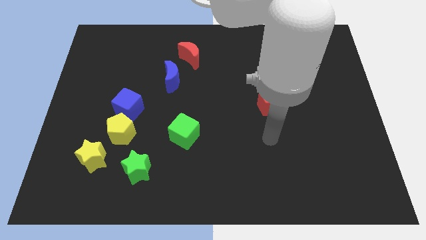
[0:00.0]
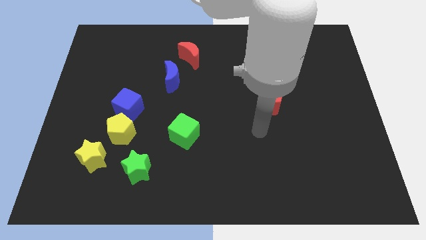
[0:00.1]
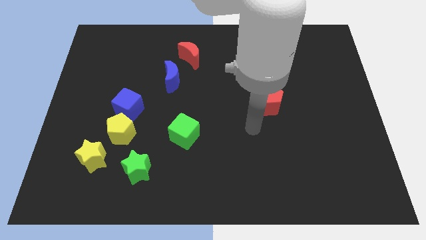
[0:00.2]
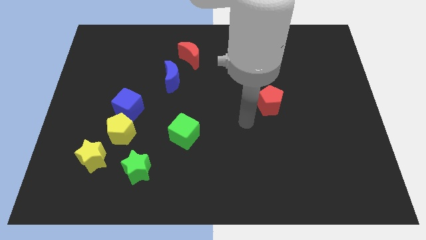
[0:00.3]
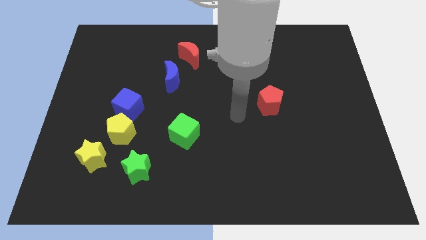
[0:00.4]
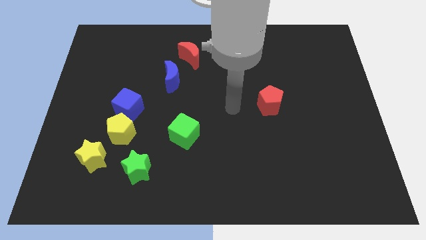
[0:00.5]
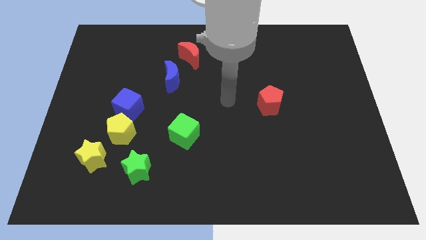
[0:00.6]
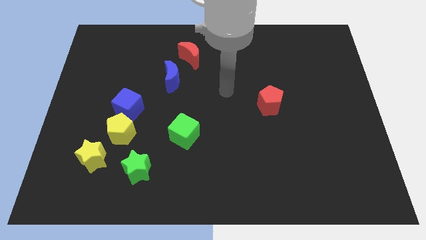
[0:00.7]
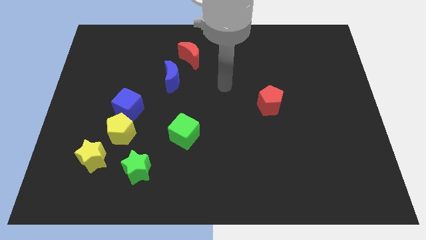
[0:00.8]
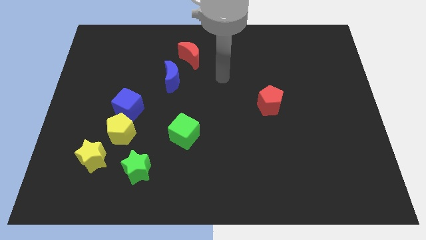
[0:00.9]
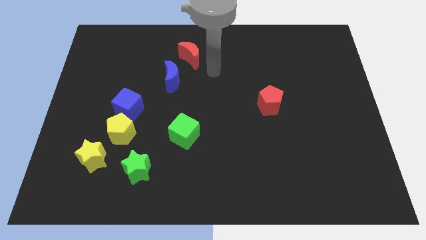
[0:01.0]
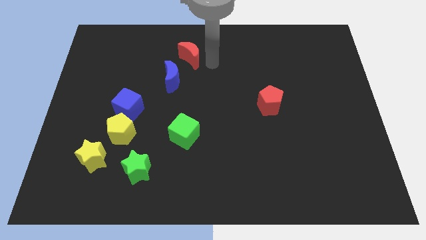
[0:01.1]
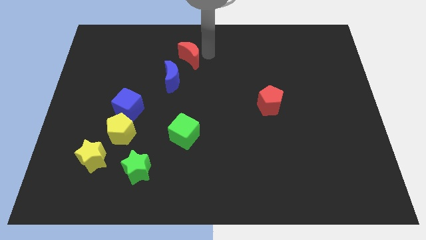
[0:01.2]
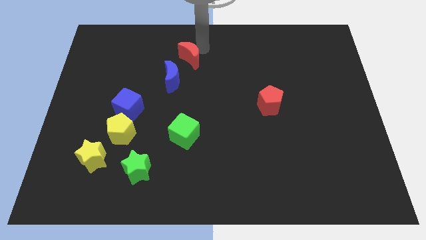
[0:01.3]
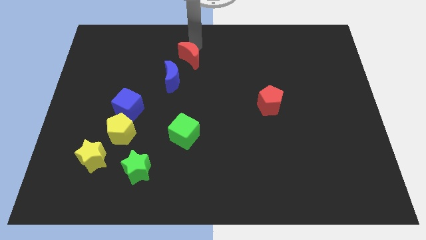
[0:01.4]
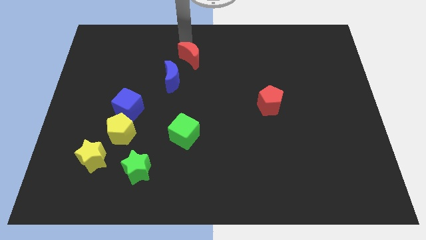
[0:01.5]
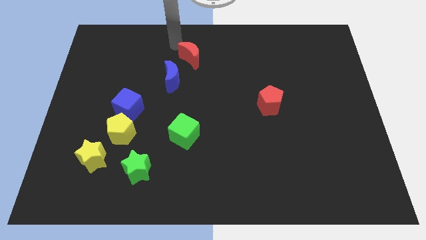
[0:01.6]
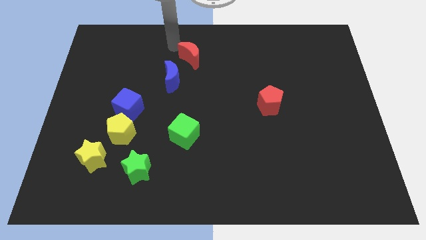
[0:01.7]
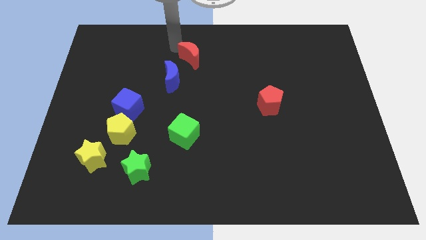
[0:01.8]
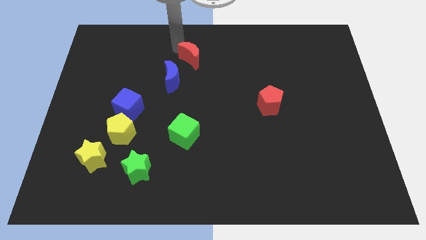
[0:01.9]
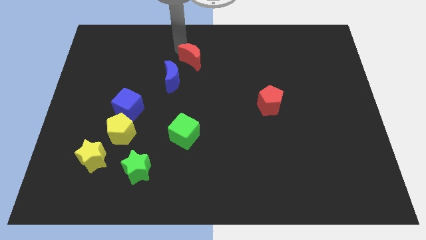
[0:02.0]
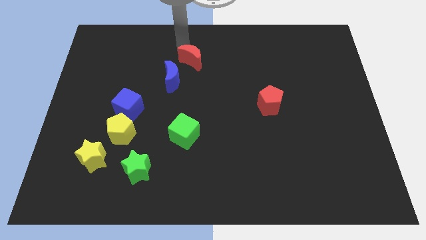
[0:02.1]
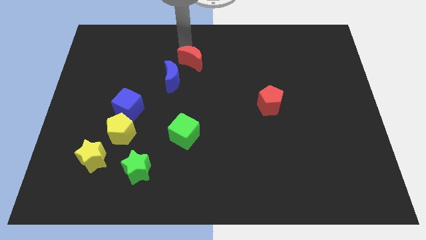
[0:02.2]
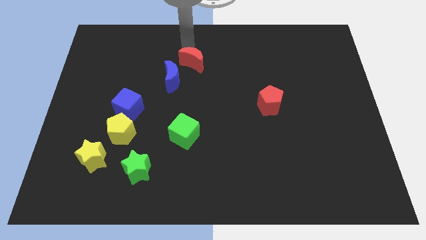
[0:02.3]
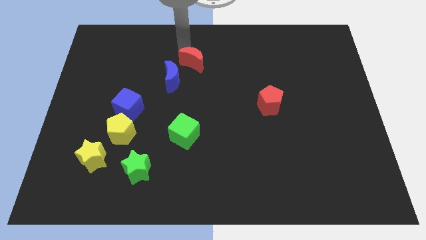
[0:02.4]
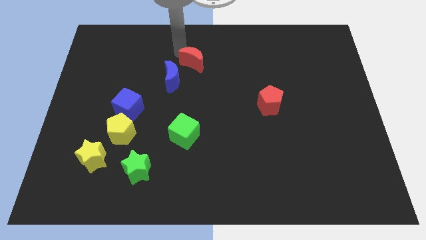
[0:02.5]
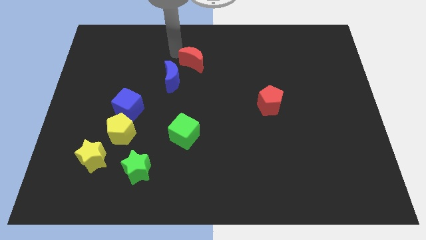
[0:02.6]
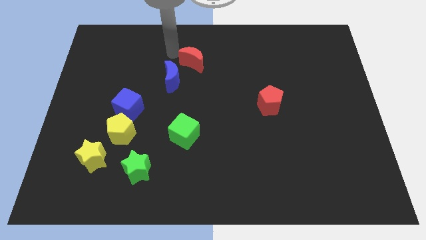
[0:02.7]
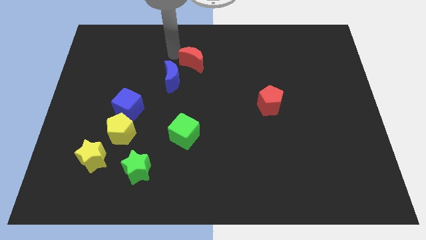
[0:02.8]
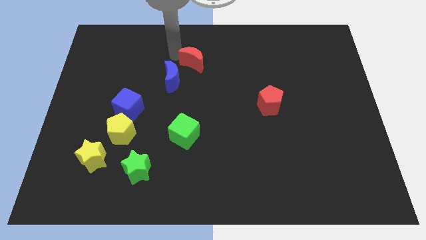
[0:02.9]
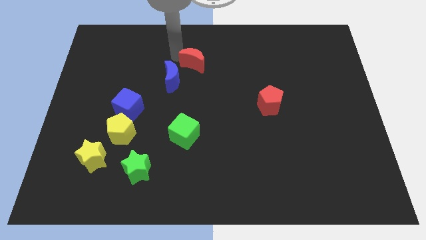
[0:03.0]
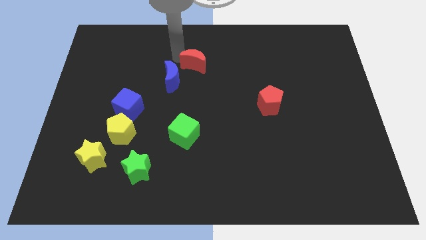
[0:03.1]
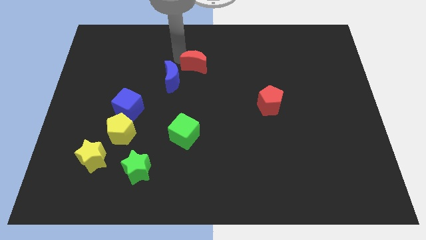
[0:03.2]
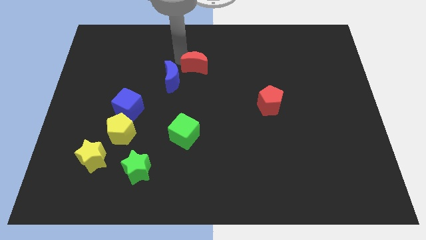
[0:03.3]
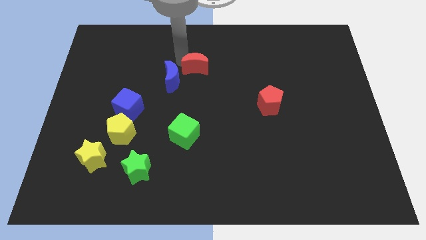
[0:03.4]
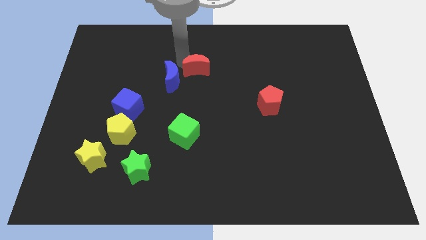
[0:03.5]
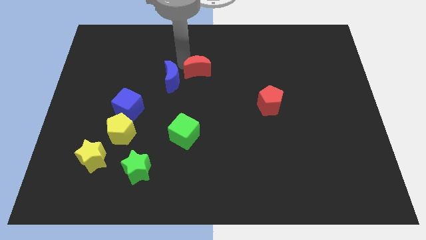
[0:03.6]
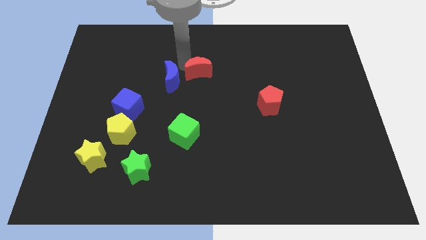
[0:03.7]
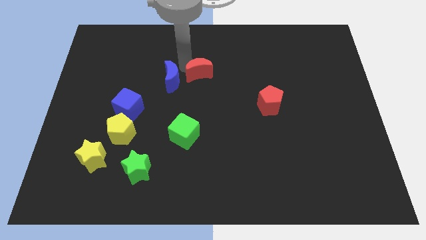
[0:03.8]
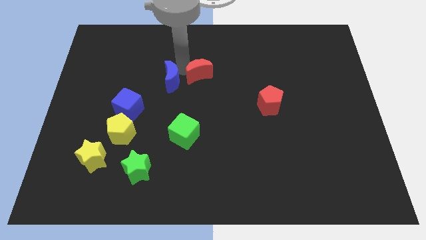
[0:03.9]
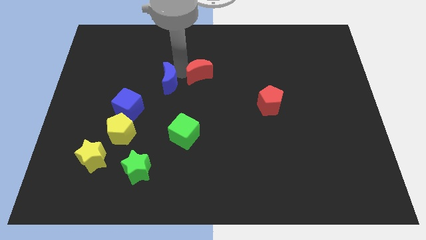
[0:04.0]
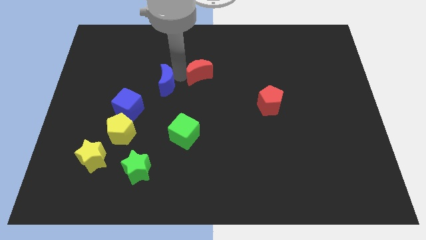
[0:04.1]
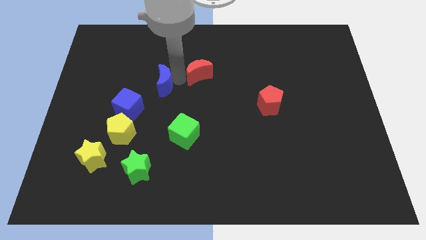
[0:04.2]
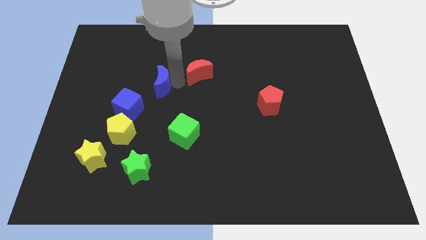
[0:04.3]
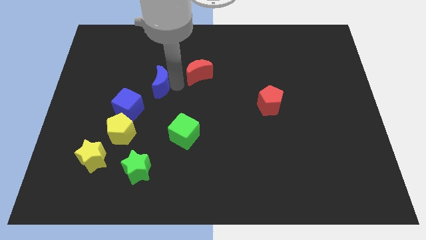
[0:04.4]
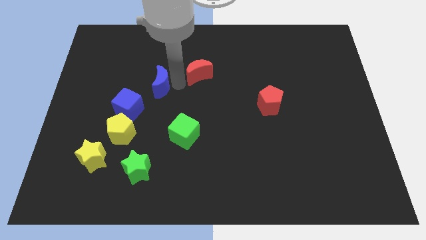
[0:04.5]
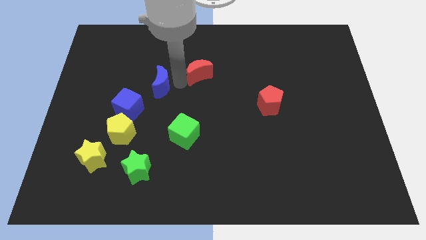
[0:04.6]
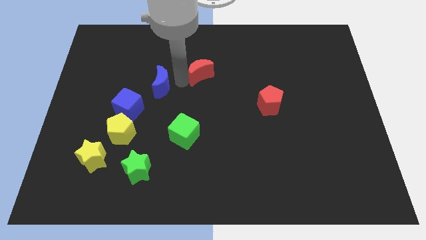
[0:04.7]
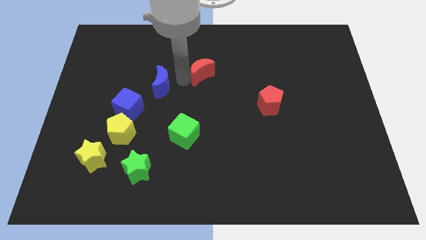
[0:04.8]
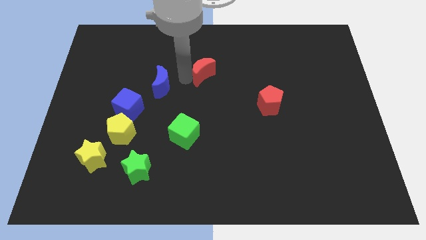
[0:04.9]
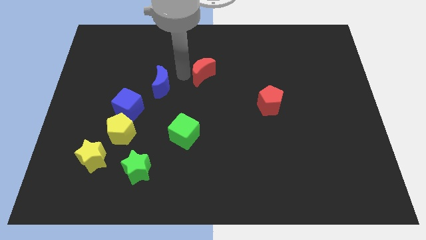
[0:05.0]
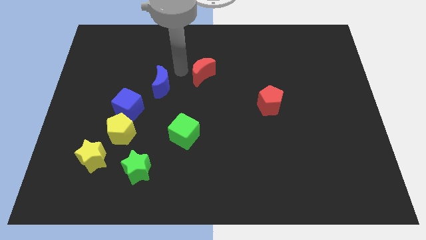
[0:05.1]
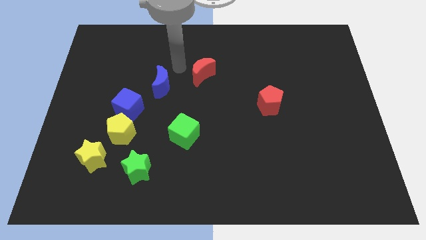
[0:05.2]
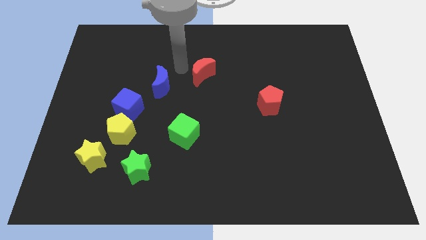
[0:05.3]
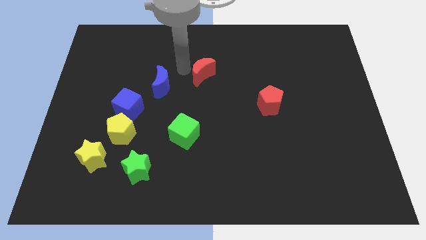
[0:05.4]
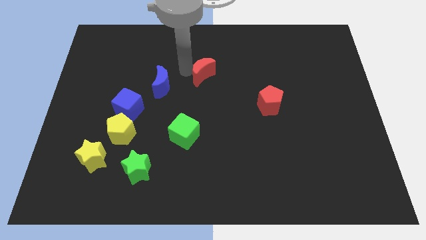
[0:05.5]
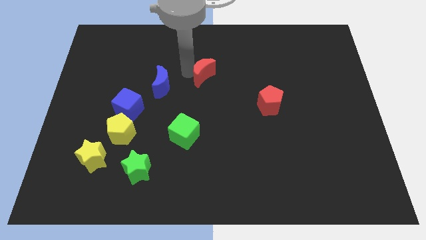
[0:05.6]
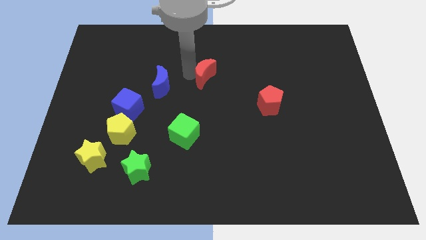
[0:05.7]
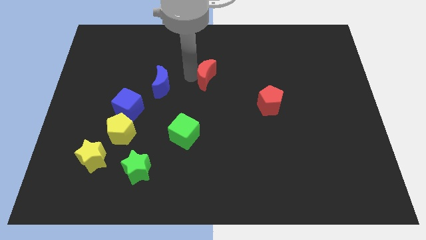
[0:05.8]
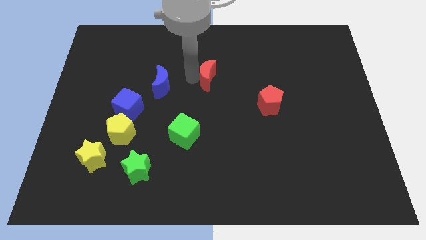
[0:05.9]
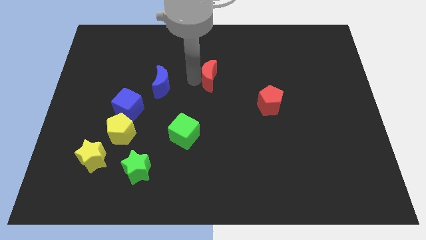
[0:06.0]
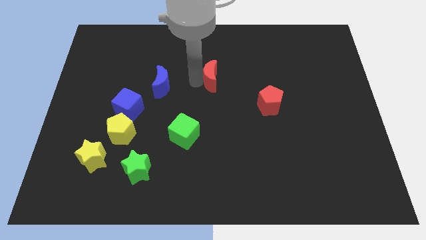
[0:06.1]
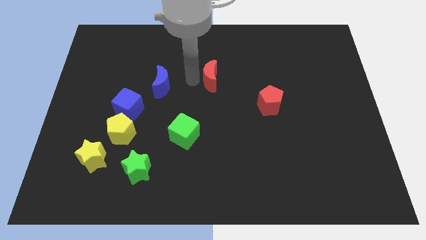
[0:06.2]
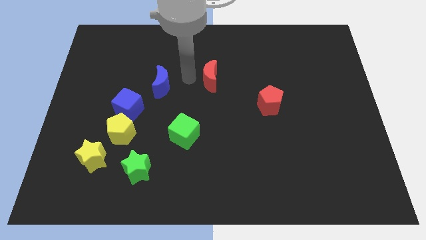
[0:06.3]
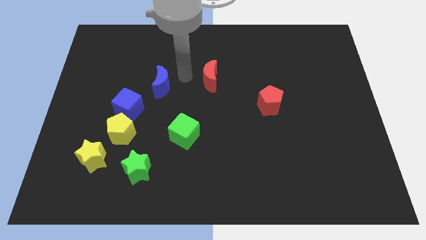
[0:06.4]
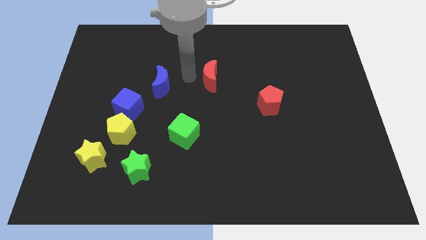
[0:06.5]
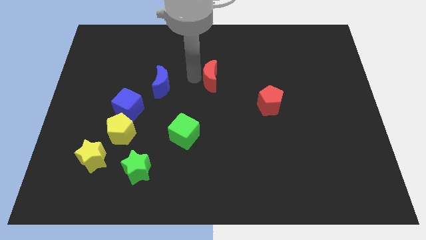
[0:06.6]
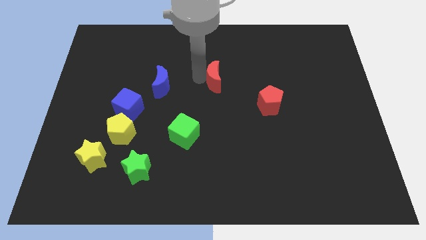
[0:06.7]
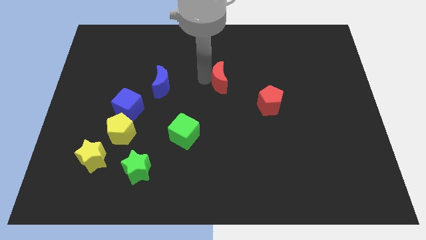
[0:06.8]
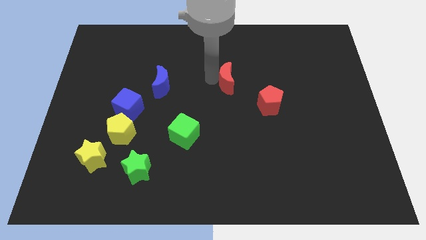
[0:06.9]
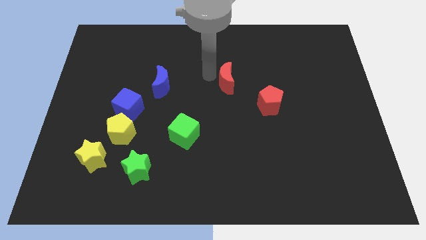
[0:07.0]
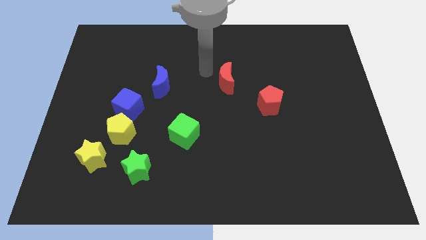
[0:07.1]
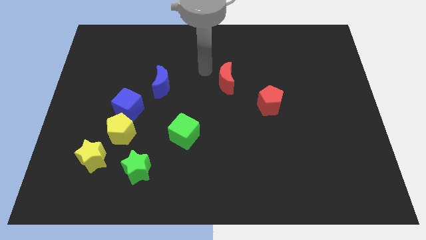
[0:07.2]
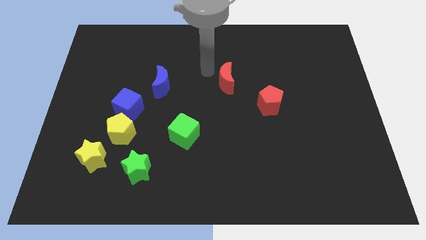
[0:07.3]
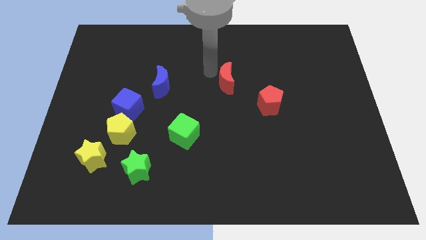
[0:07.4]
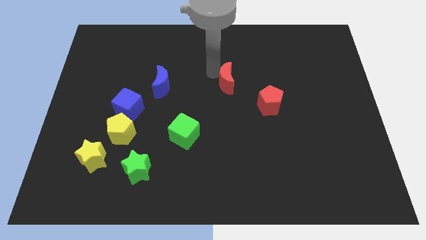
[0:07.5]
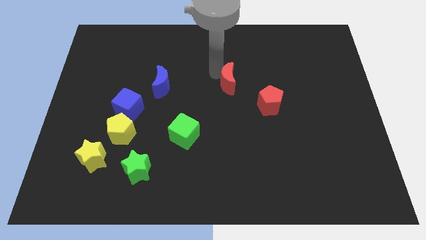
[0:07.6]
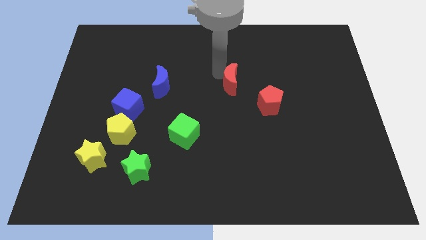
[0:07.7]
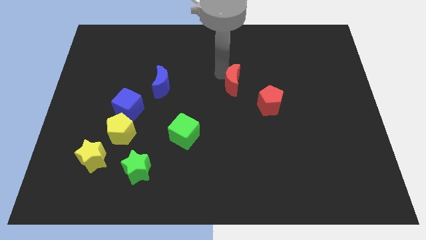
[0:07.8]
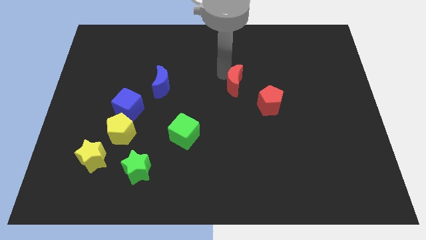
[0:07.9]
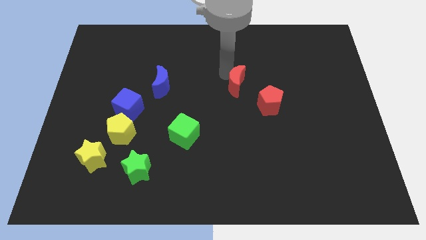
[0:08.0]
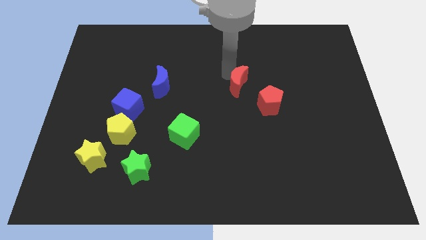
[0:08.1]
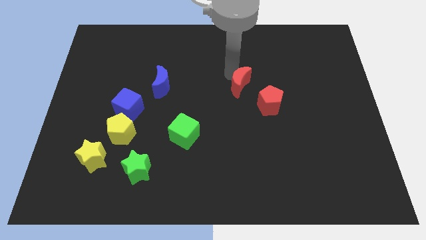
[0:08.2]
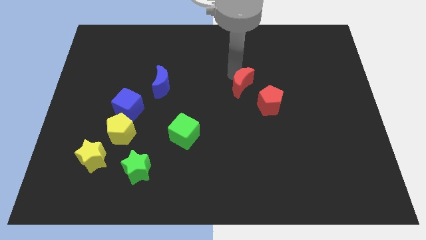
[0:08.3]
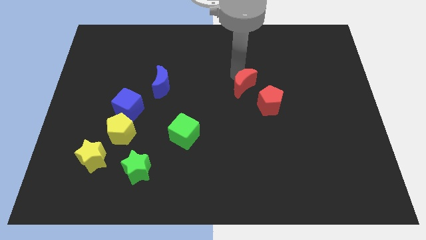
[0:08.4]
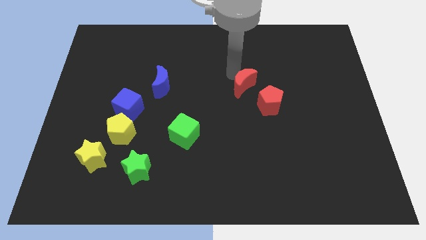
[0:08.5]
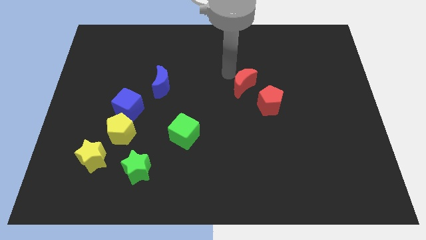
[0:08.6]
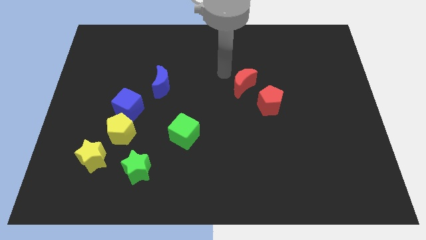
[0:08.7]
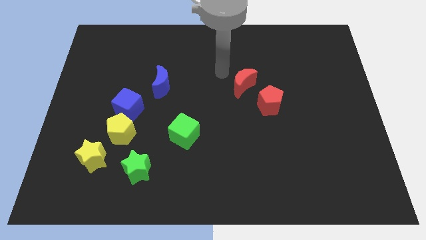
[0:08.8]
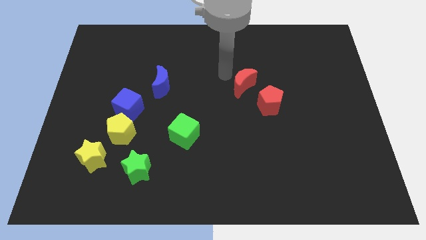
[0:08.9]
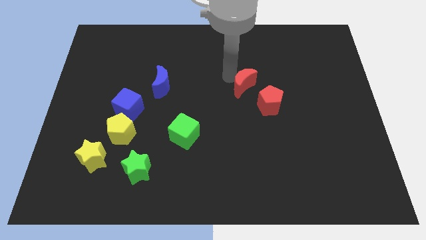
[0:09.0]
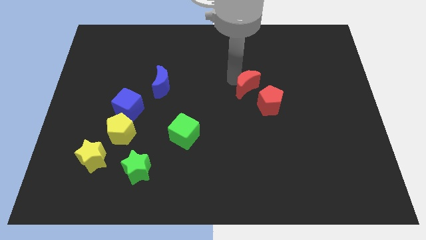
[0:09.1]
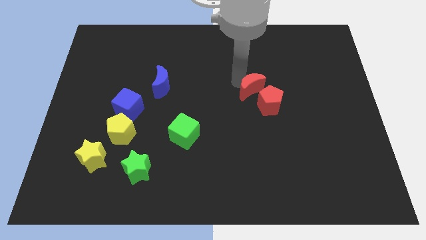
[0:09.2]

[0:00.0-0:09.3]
put the red moon next to the red pentagon
